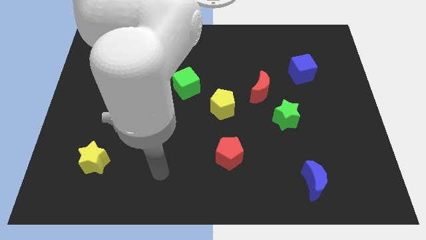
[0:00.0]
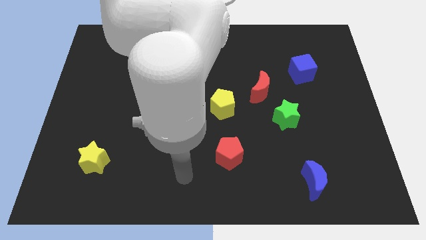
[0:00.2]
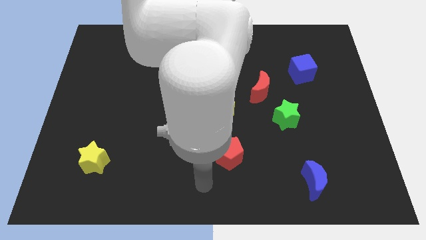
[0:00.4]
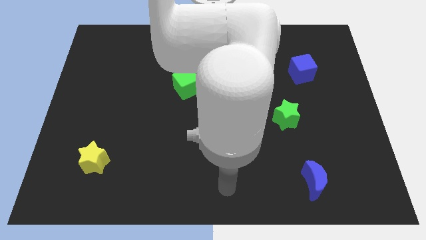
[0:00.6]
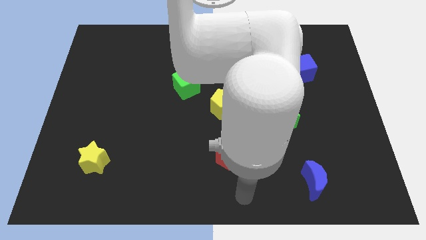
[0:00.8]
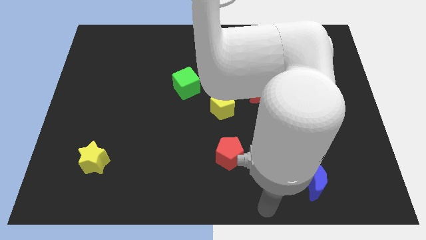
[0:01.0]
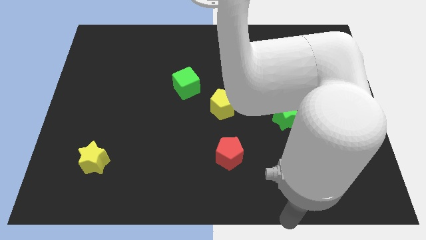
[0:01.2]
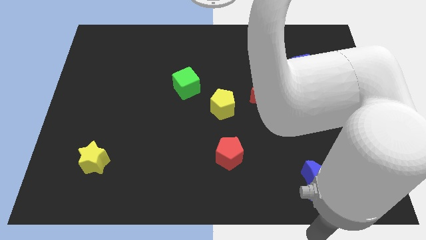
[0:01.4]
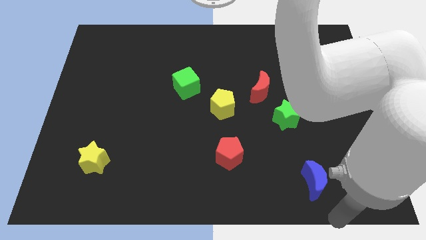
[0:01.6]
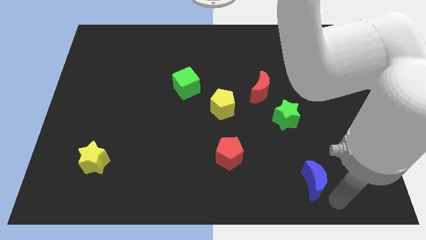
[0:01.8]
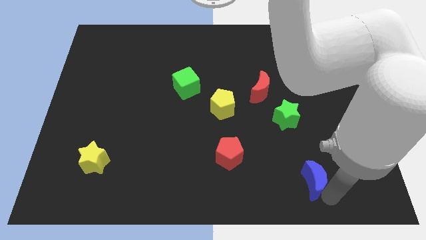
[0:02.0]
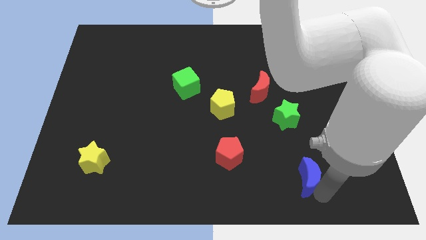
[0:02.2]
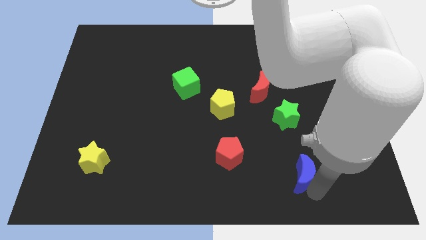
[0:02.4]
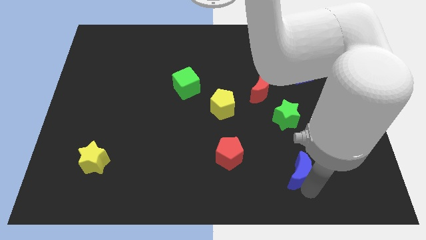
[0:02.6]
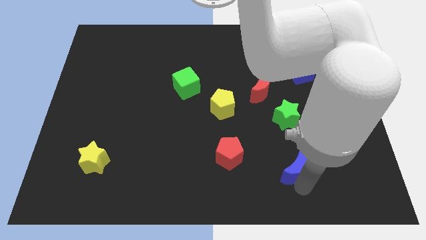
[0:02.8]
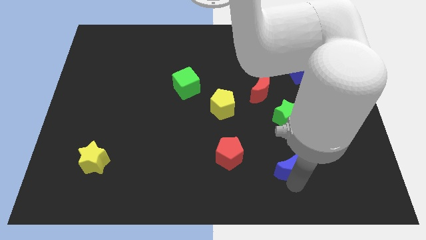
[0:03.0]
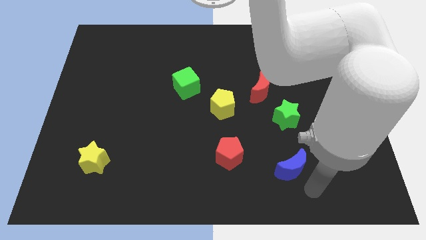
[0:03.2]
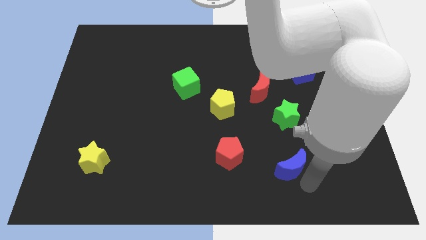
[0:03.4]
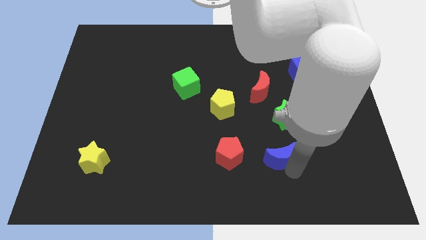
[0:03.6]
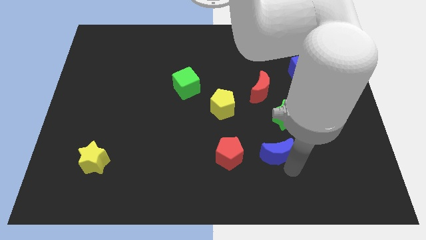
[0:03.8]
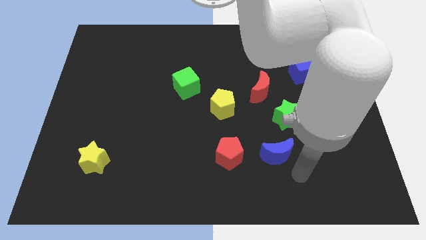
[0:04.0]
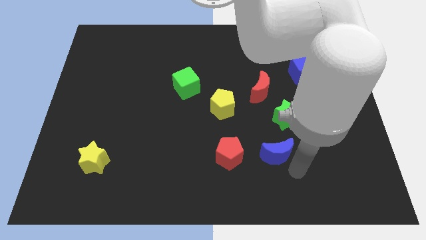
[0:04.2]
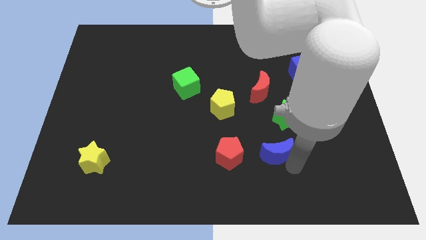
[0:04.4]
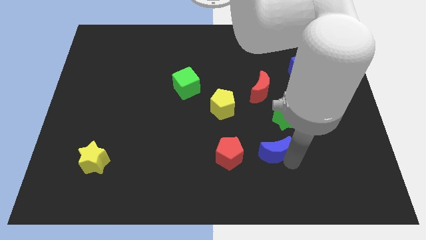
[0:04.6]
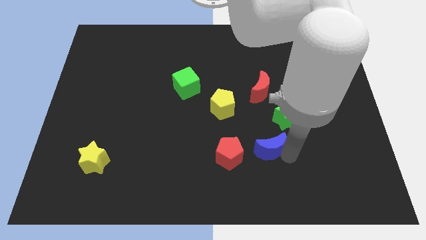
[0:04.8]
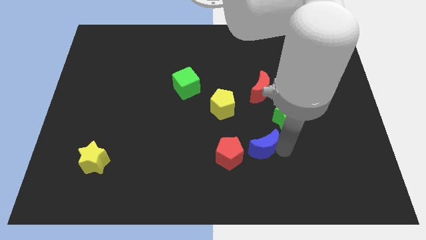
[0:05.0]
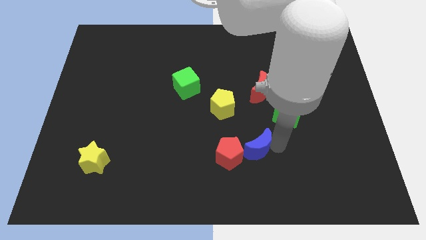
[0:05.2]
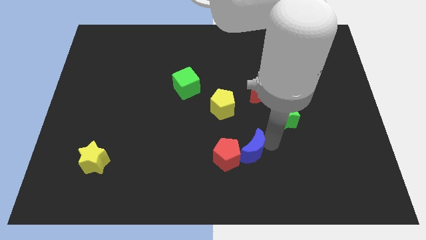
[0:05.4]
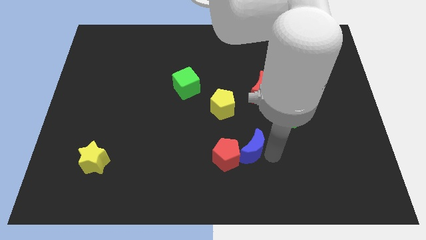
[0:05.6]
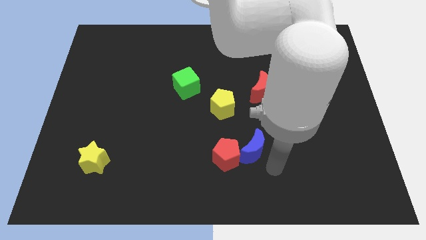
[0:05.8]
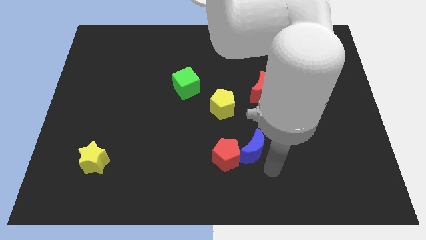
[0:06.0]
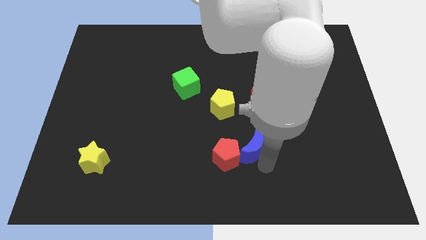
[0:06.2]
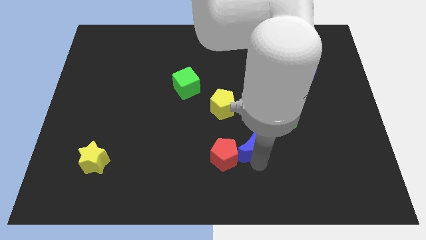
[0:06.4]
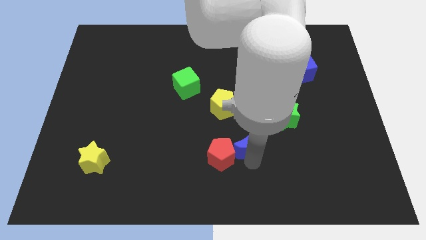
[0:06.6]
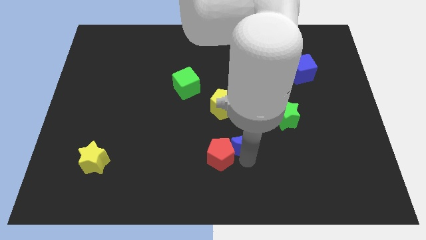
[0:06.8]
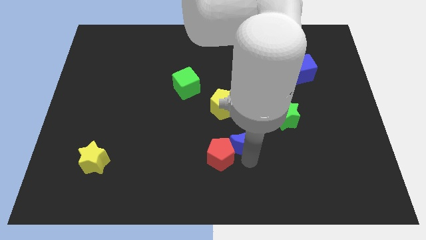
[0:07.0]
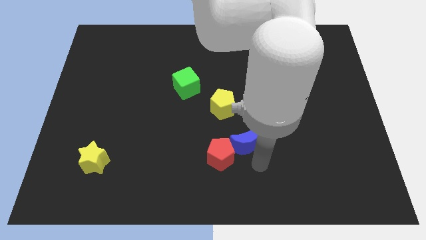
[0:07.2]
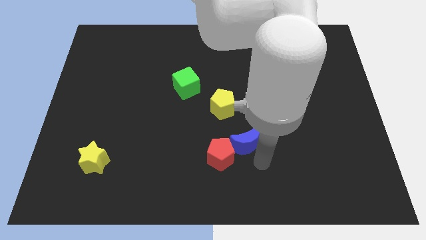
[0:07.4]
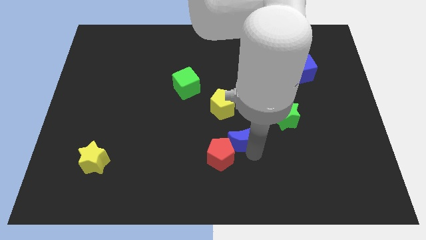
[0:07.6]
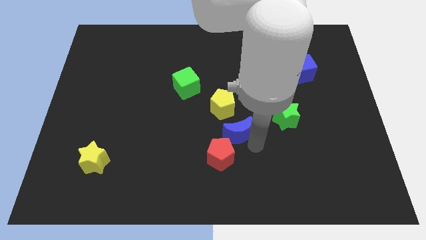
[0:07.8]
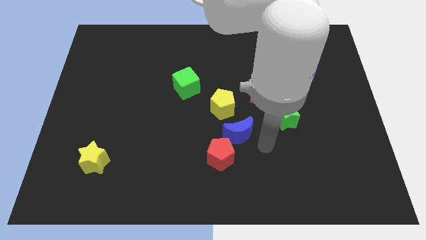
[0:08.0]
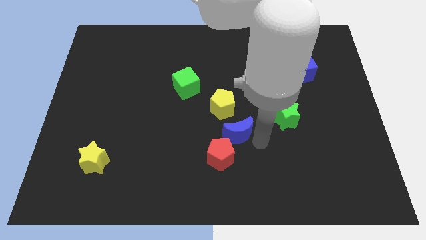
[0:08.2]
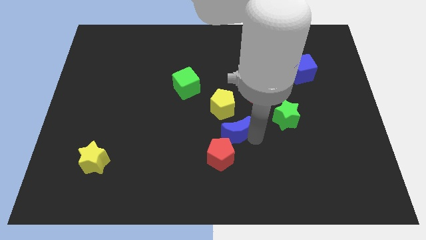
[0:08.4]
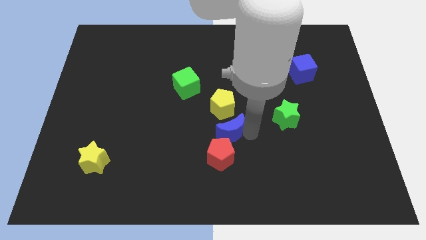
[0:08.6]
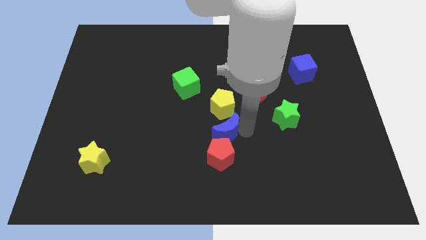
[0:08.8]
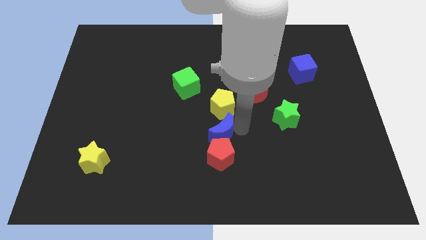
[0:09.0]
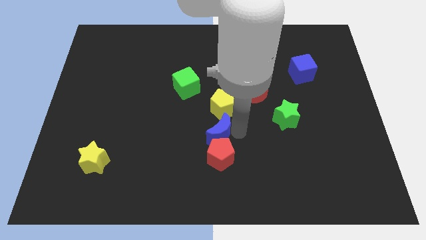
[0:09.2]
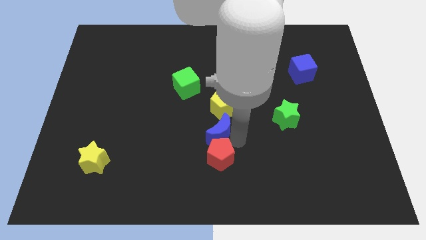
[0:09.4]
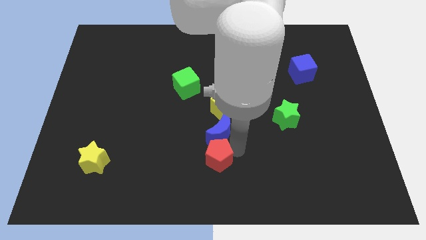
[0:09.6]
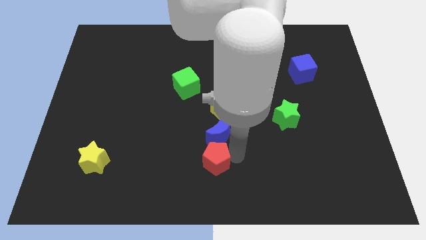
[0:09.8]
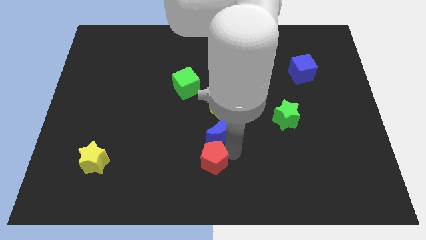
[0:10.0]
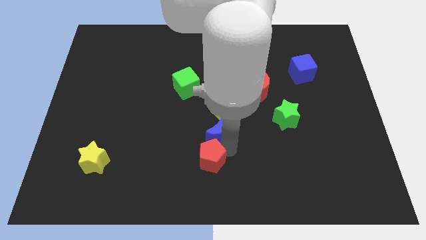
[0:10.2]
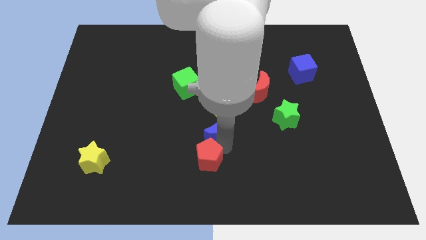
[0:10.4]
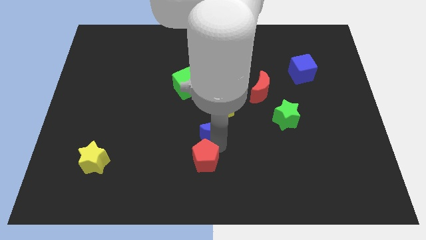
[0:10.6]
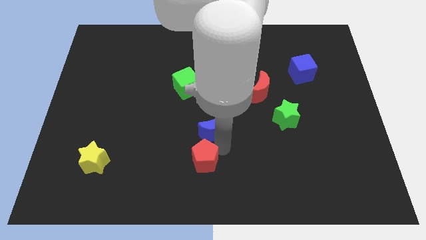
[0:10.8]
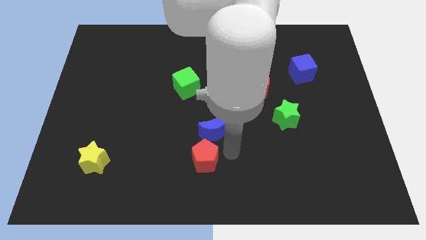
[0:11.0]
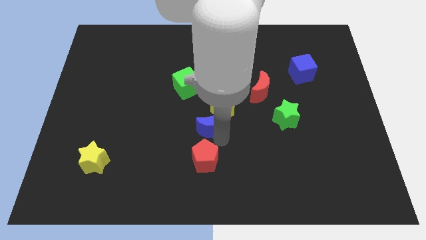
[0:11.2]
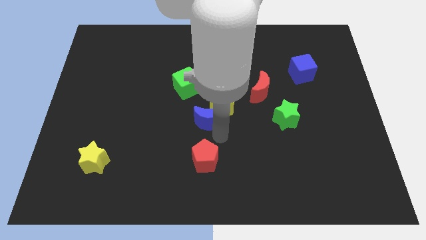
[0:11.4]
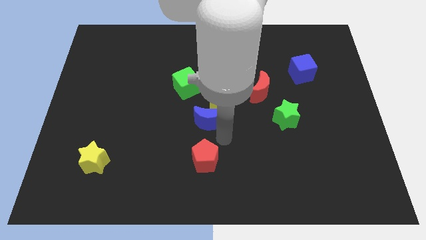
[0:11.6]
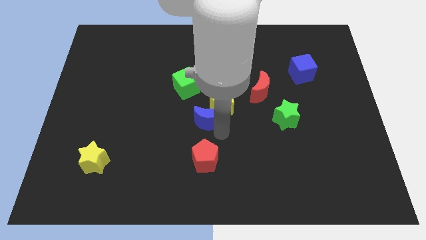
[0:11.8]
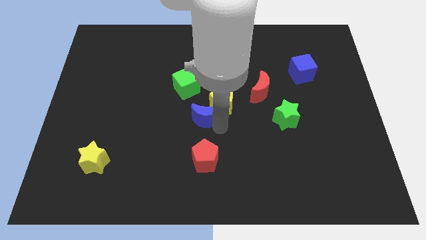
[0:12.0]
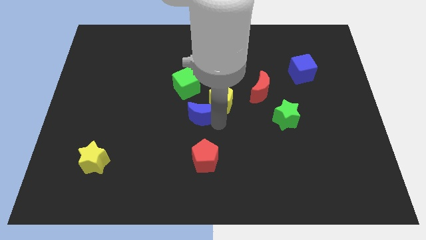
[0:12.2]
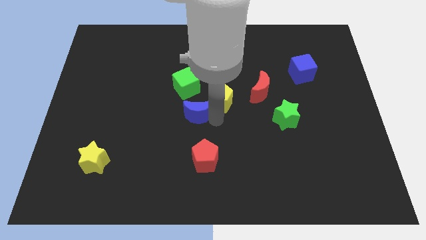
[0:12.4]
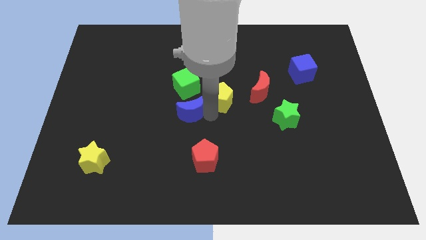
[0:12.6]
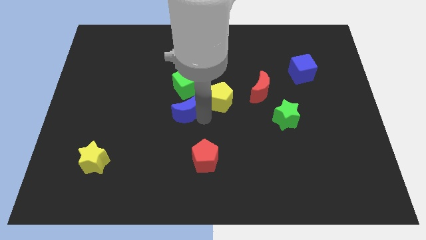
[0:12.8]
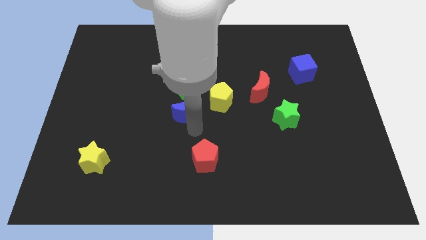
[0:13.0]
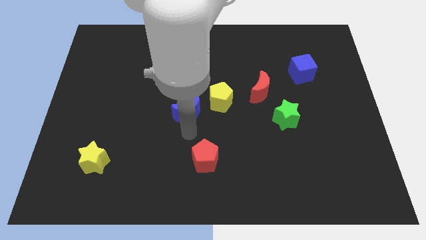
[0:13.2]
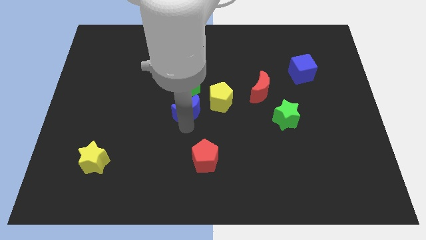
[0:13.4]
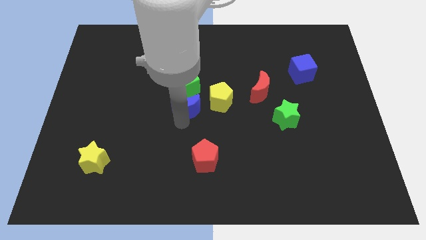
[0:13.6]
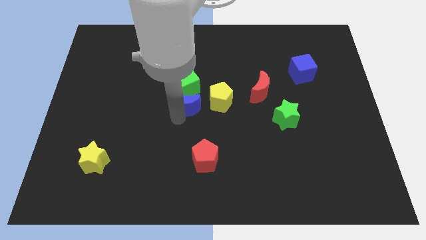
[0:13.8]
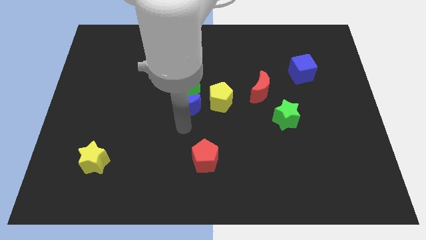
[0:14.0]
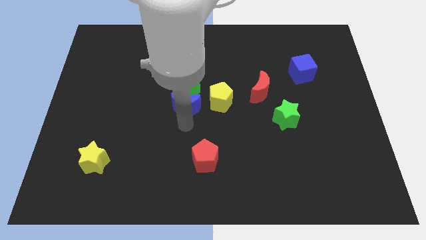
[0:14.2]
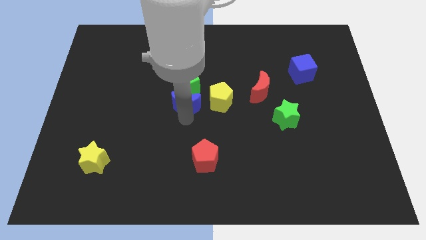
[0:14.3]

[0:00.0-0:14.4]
put the blue moon next to the green cube
